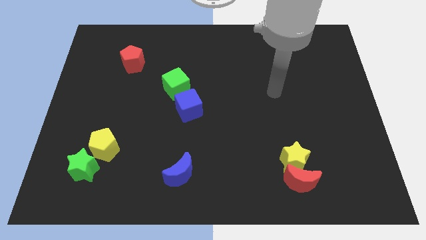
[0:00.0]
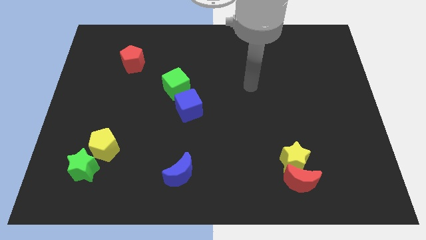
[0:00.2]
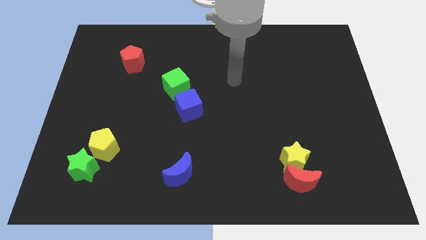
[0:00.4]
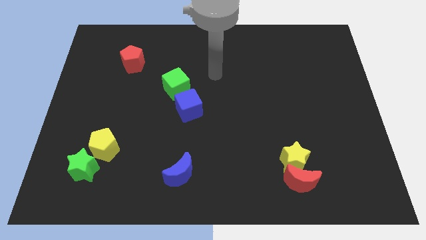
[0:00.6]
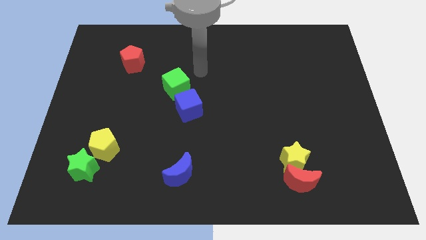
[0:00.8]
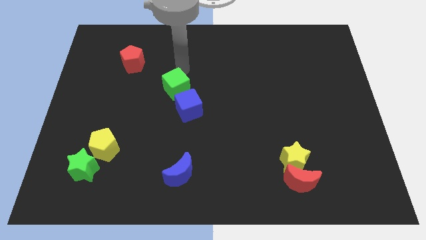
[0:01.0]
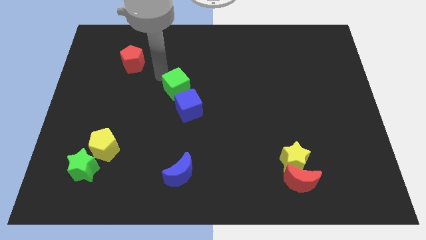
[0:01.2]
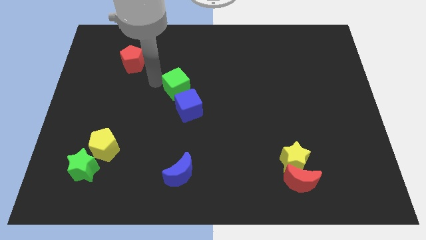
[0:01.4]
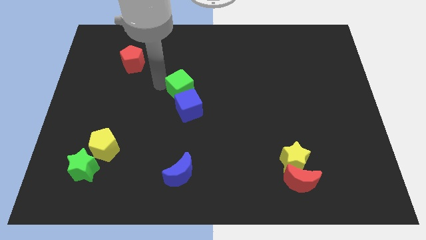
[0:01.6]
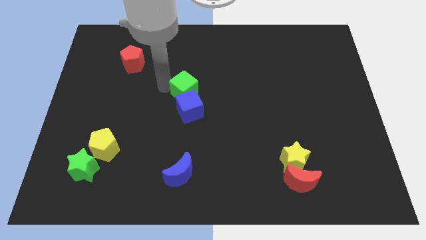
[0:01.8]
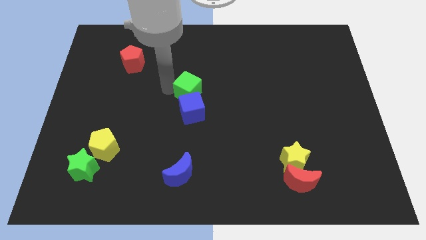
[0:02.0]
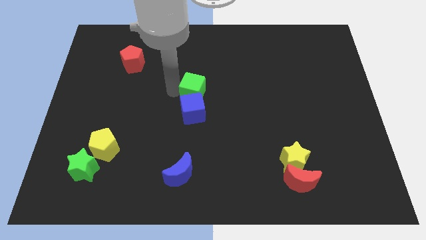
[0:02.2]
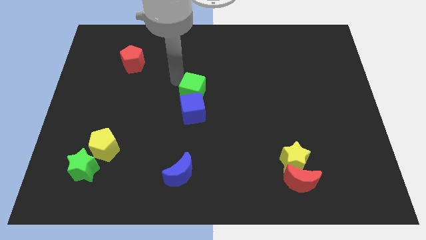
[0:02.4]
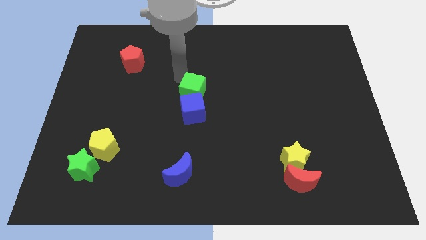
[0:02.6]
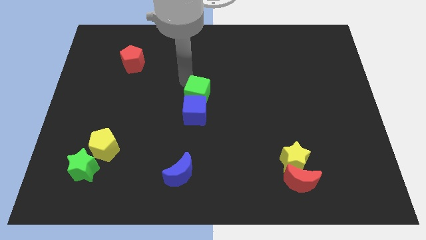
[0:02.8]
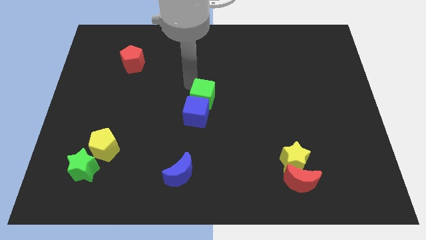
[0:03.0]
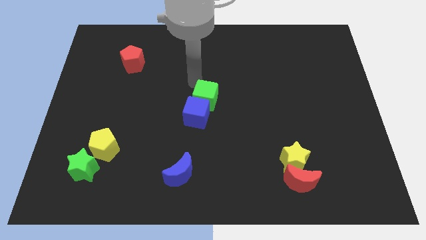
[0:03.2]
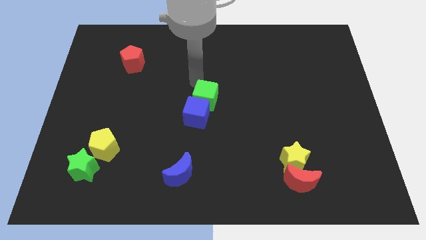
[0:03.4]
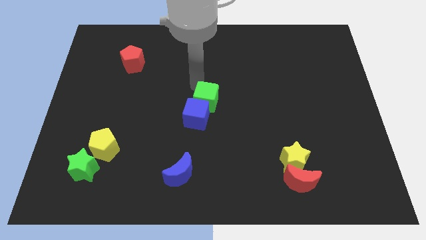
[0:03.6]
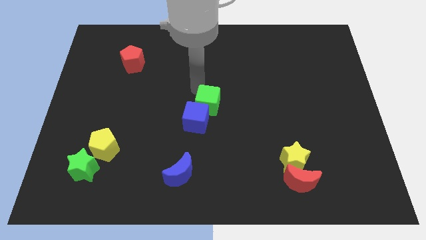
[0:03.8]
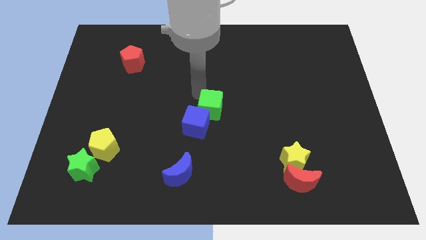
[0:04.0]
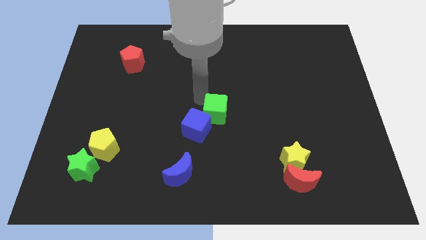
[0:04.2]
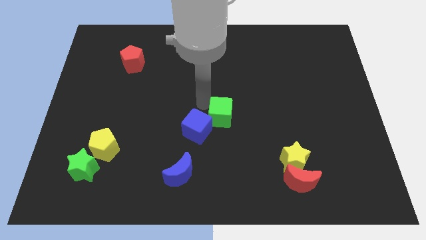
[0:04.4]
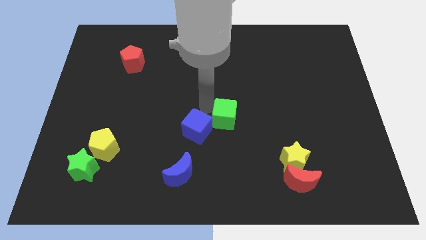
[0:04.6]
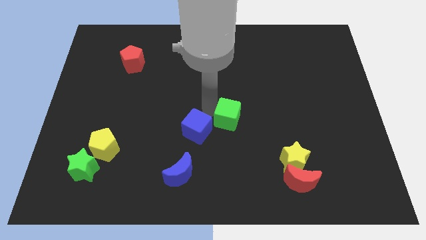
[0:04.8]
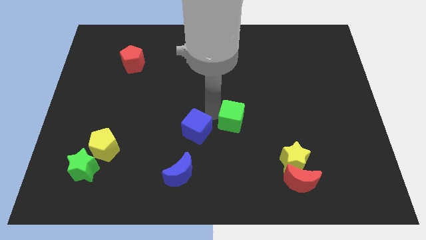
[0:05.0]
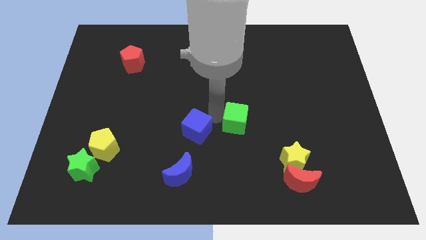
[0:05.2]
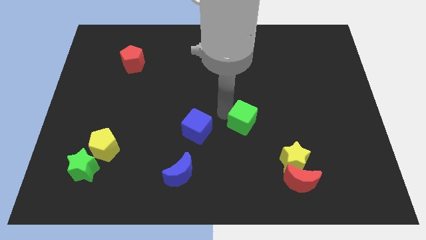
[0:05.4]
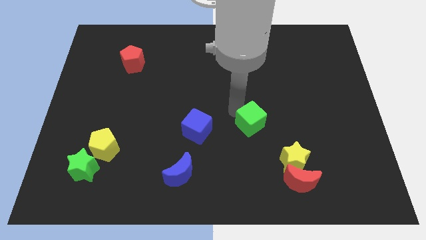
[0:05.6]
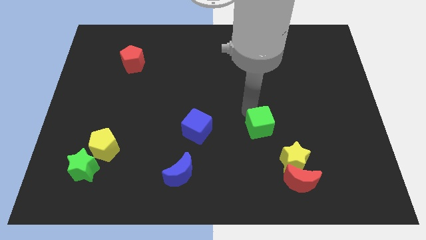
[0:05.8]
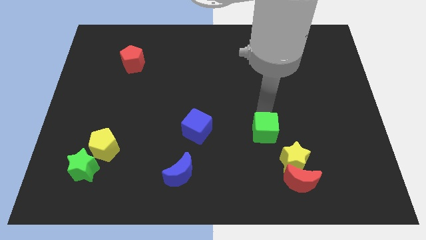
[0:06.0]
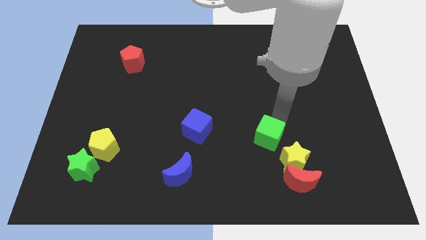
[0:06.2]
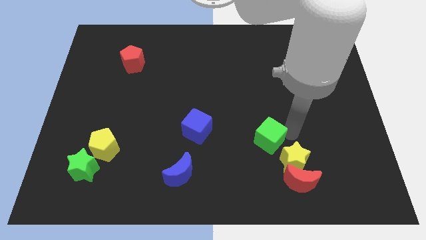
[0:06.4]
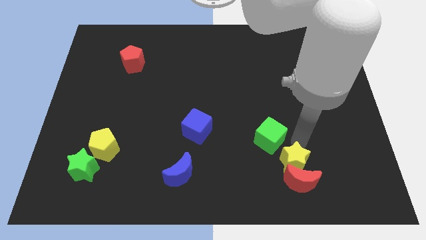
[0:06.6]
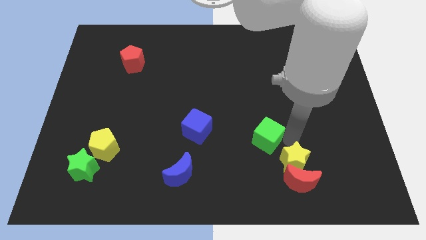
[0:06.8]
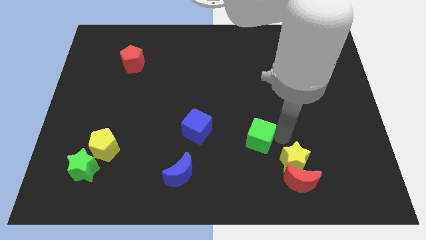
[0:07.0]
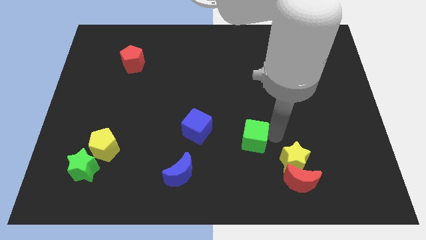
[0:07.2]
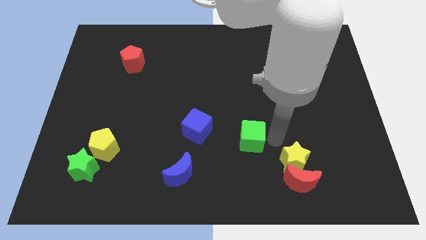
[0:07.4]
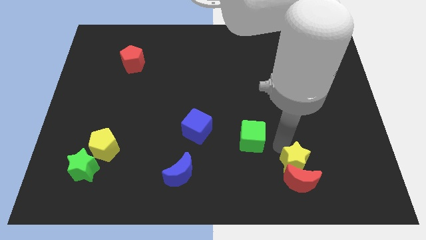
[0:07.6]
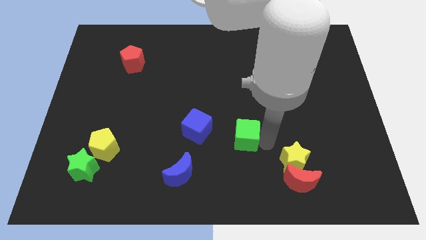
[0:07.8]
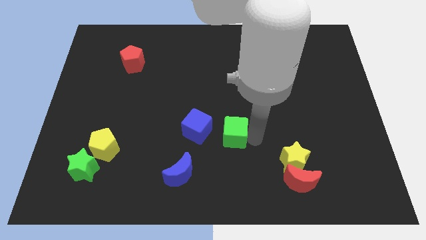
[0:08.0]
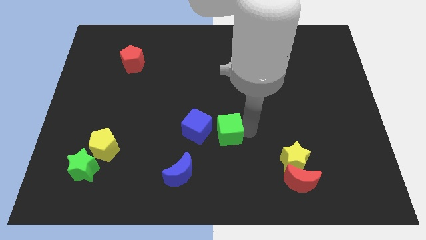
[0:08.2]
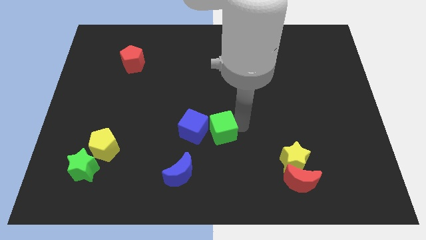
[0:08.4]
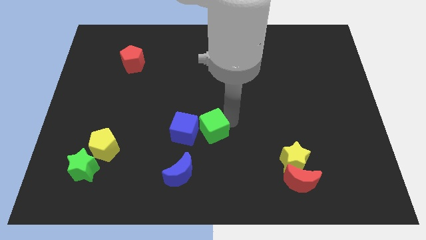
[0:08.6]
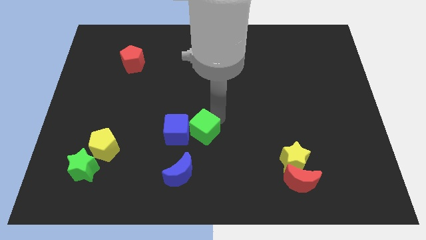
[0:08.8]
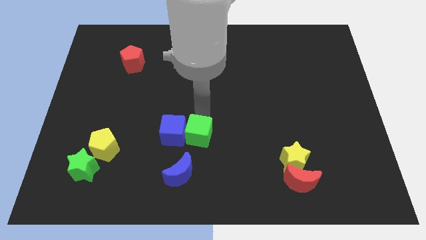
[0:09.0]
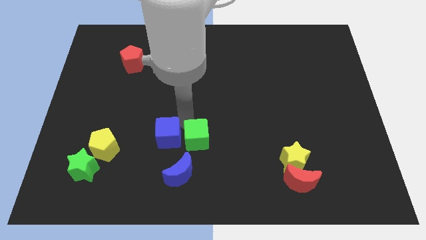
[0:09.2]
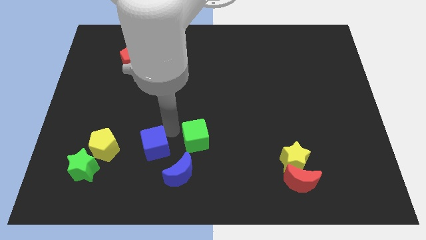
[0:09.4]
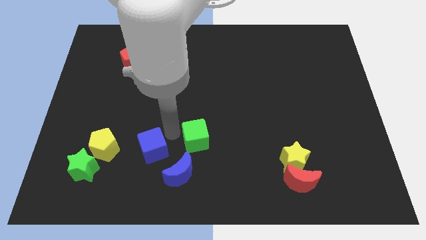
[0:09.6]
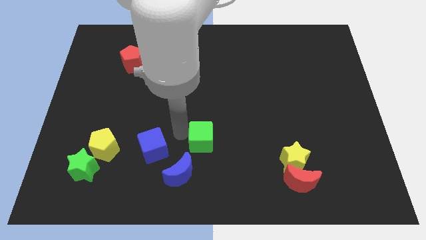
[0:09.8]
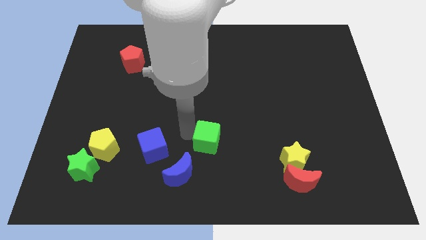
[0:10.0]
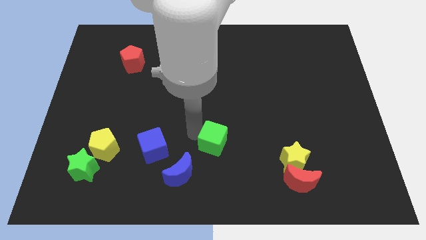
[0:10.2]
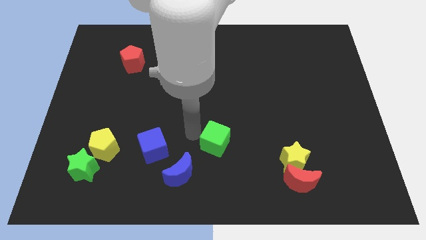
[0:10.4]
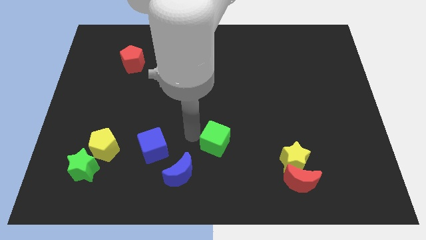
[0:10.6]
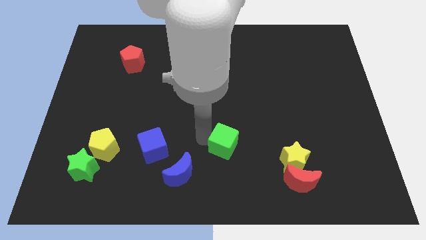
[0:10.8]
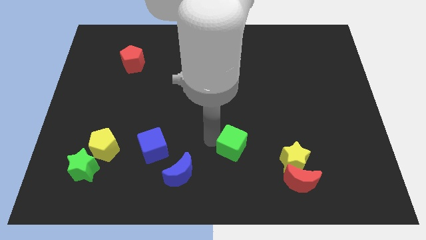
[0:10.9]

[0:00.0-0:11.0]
move the green cube to the left side of the yellow star

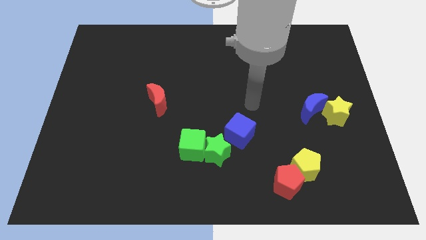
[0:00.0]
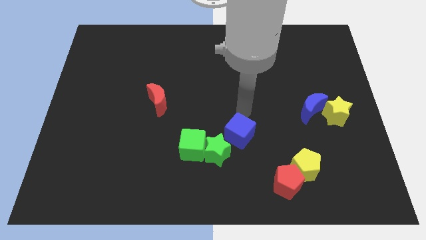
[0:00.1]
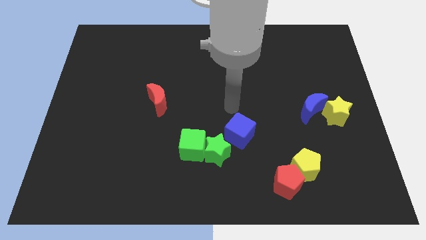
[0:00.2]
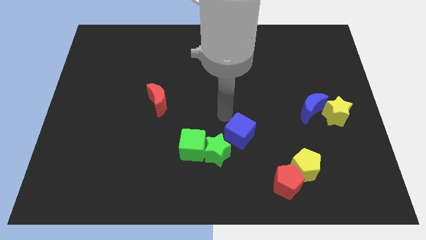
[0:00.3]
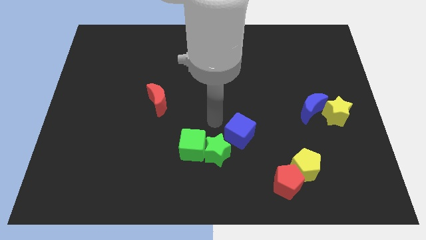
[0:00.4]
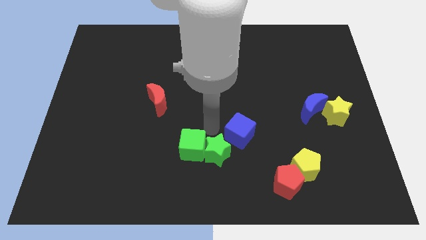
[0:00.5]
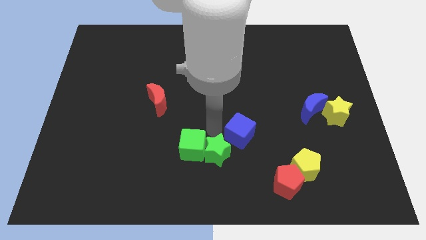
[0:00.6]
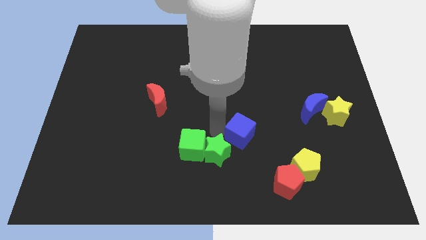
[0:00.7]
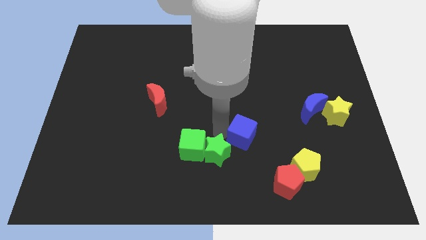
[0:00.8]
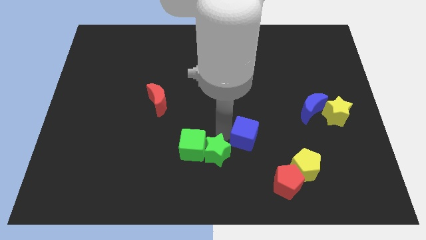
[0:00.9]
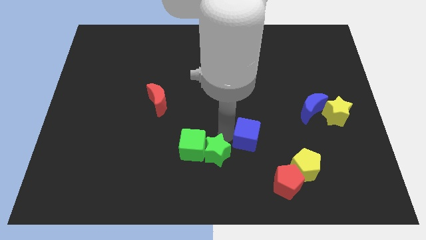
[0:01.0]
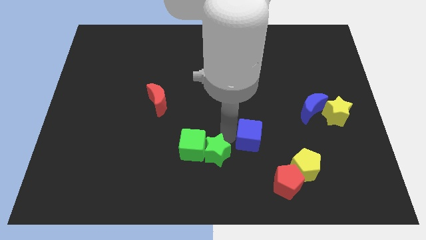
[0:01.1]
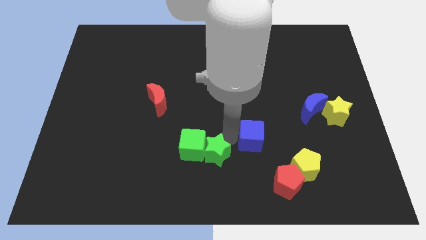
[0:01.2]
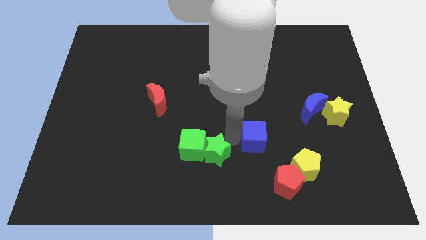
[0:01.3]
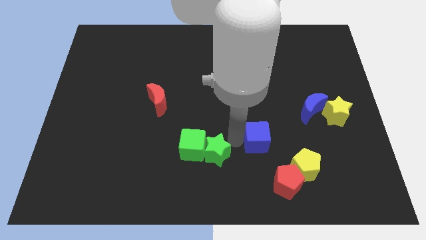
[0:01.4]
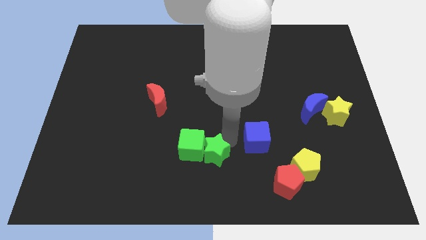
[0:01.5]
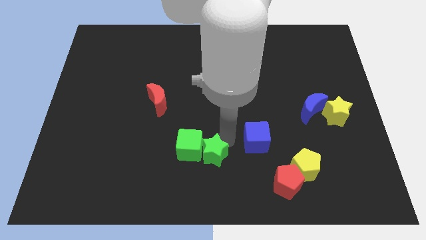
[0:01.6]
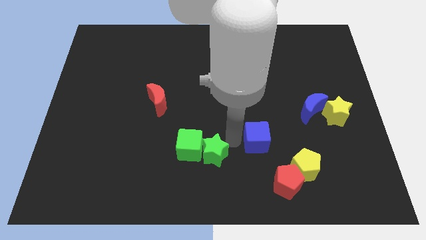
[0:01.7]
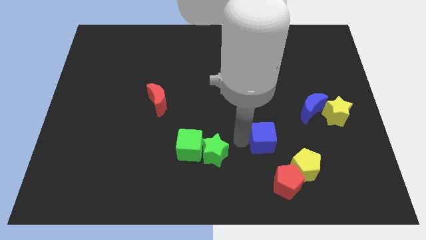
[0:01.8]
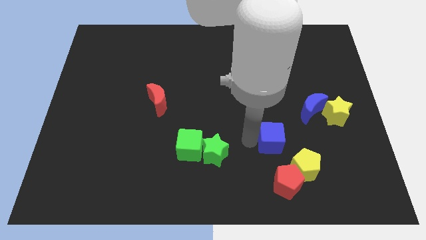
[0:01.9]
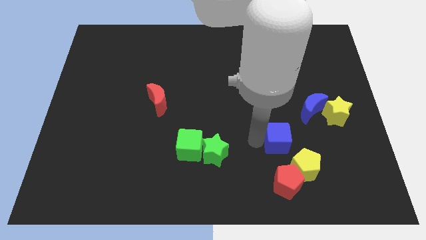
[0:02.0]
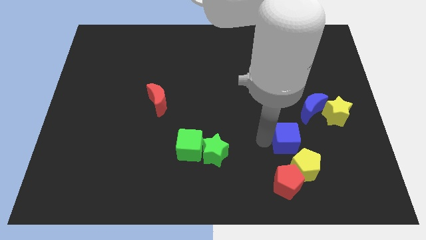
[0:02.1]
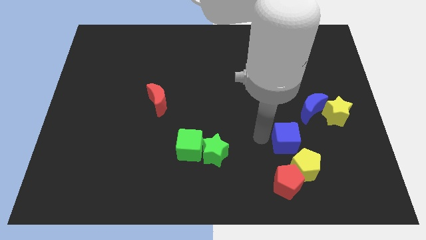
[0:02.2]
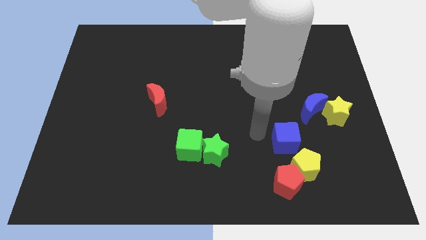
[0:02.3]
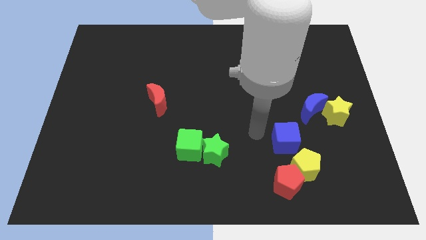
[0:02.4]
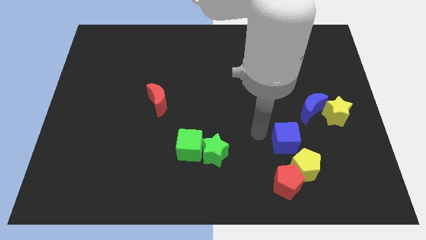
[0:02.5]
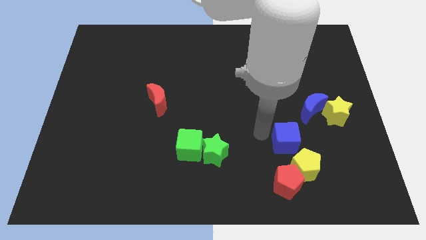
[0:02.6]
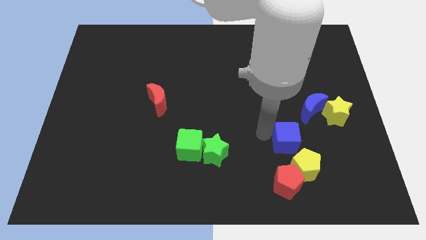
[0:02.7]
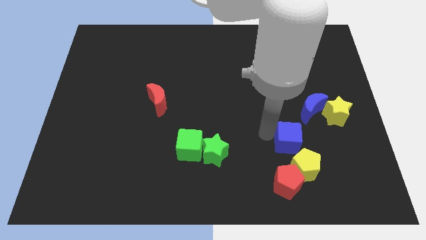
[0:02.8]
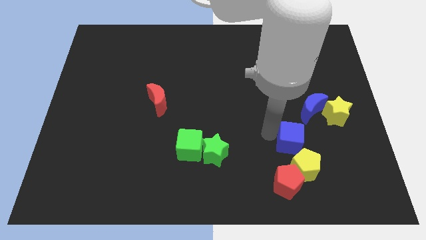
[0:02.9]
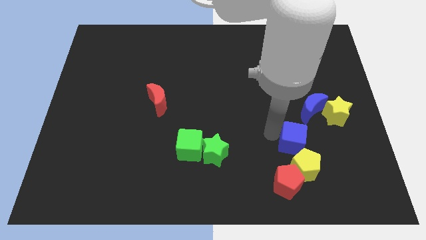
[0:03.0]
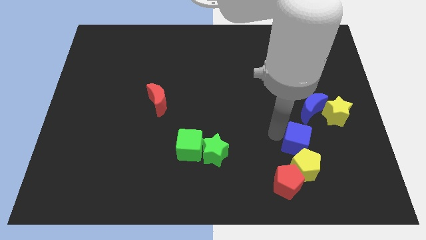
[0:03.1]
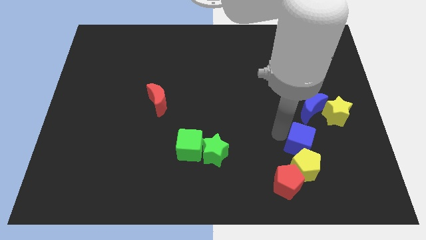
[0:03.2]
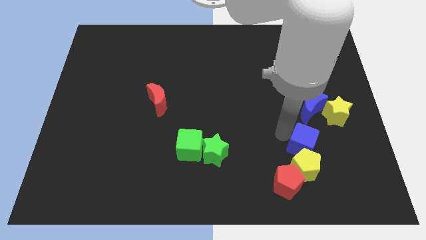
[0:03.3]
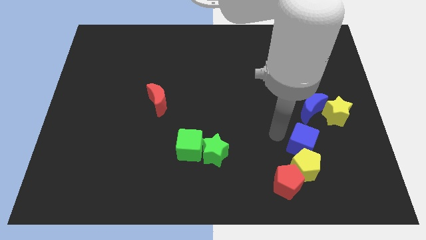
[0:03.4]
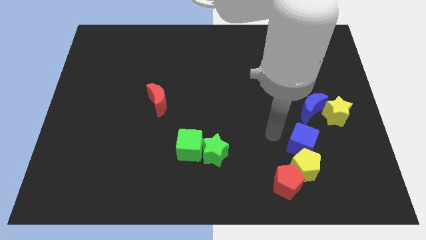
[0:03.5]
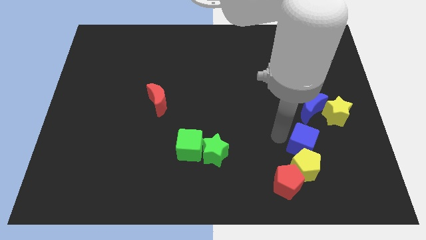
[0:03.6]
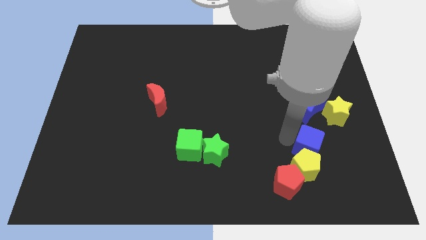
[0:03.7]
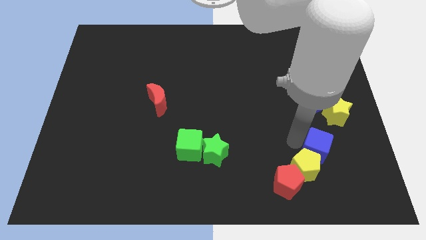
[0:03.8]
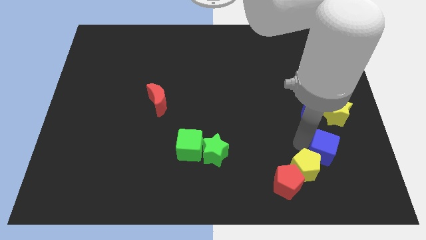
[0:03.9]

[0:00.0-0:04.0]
push the blue cube below the yellow star
